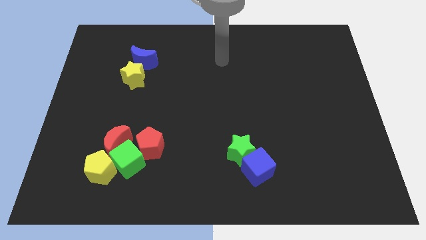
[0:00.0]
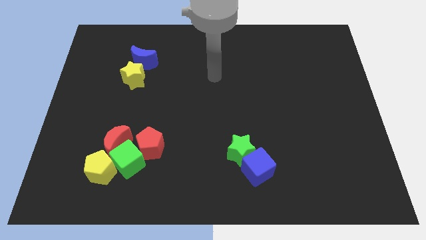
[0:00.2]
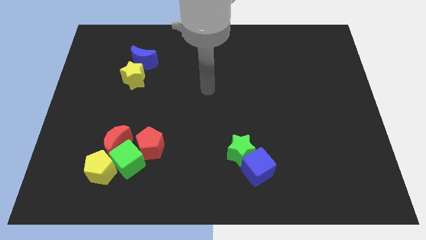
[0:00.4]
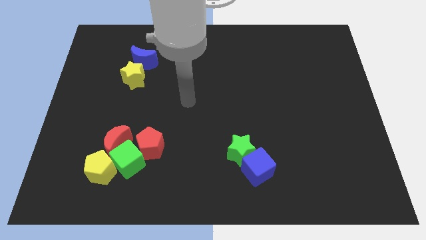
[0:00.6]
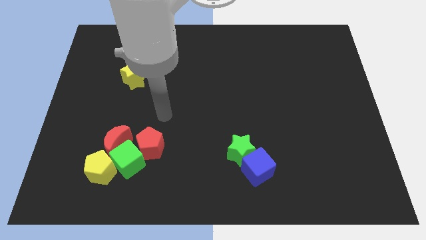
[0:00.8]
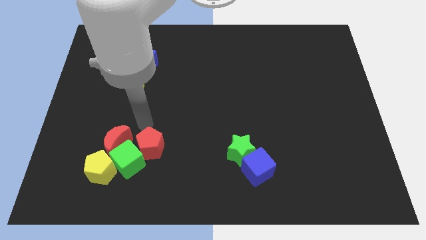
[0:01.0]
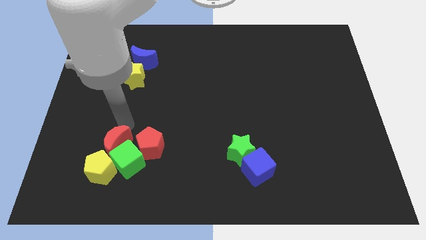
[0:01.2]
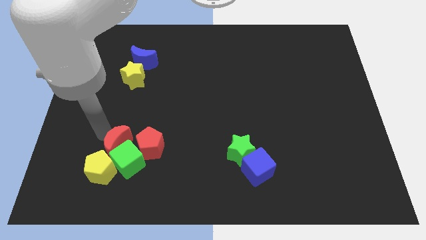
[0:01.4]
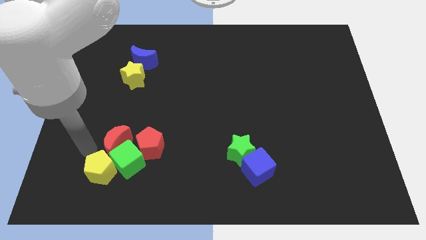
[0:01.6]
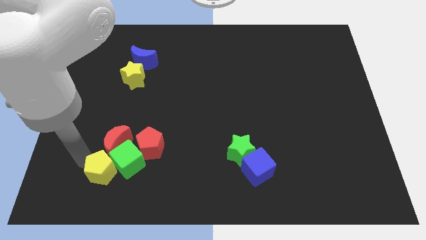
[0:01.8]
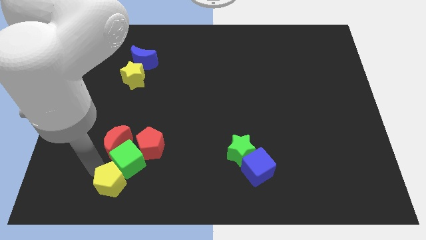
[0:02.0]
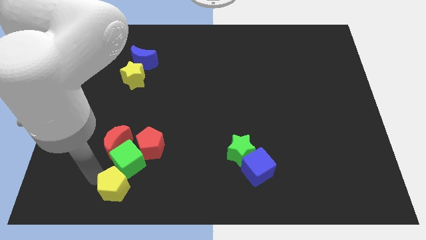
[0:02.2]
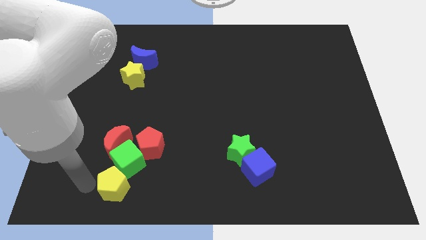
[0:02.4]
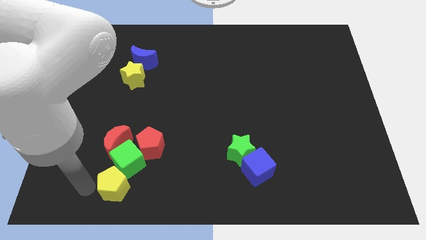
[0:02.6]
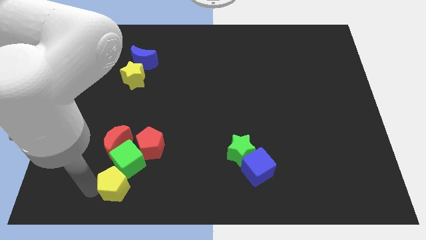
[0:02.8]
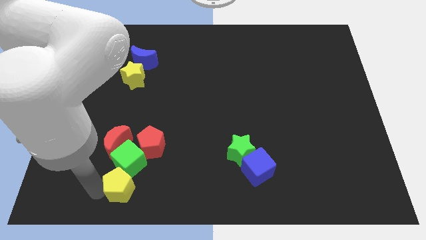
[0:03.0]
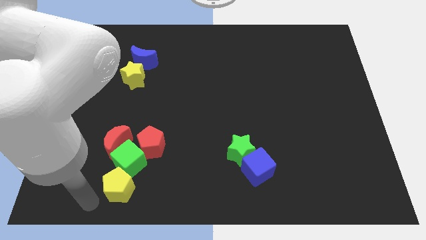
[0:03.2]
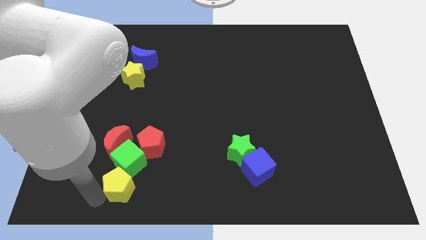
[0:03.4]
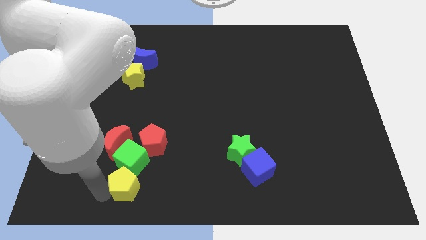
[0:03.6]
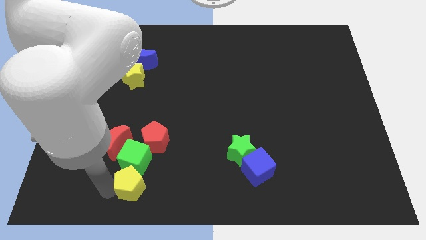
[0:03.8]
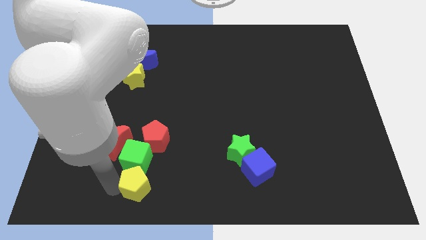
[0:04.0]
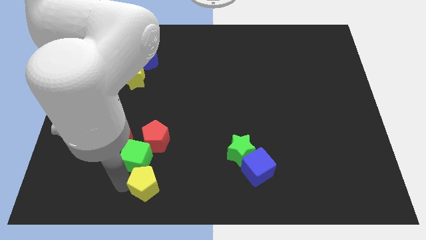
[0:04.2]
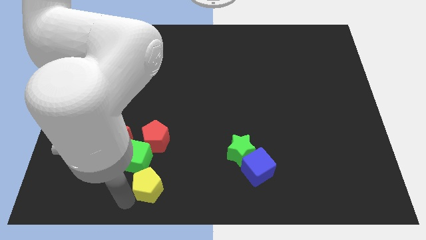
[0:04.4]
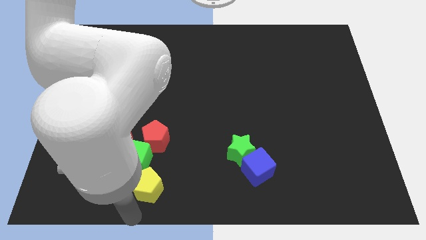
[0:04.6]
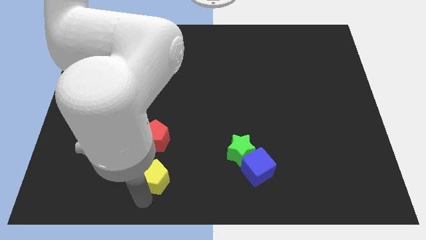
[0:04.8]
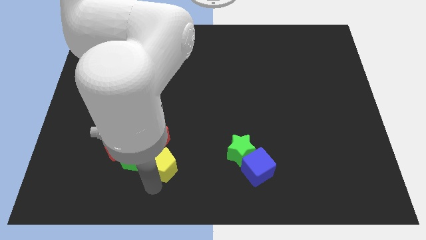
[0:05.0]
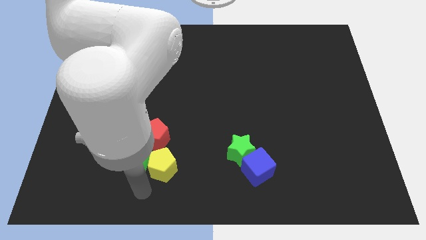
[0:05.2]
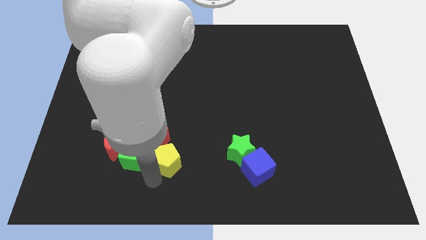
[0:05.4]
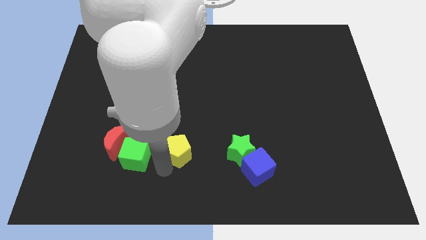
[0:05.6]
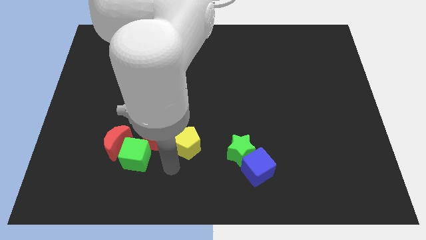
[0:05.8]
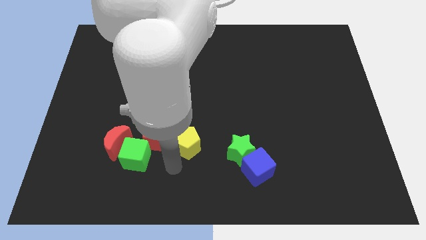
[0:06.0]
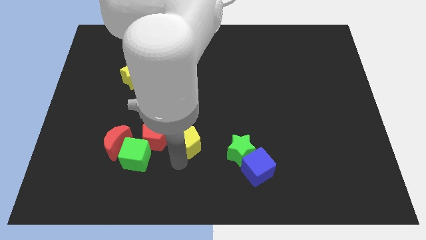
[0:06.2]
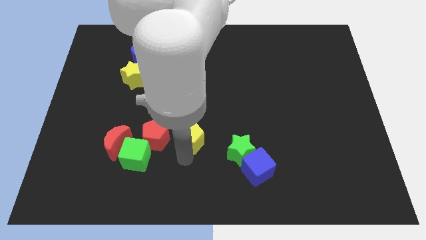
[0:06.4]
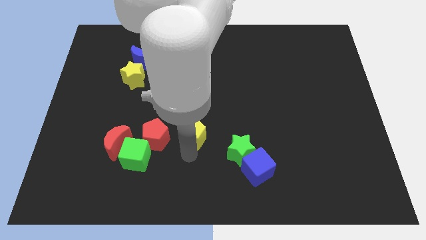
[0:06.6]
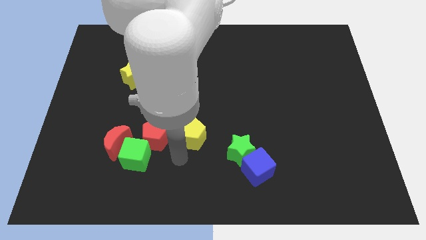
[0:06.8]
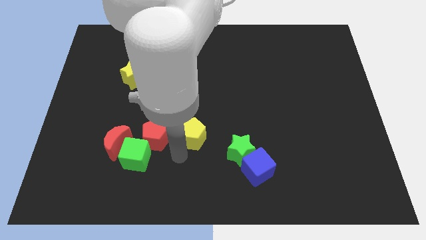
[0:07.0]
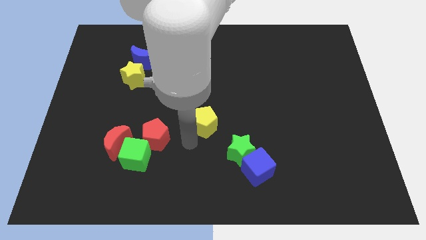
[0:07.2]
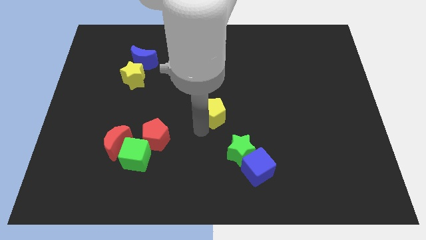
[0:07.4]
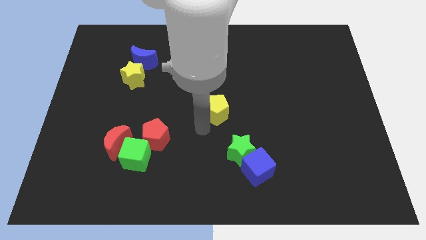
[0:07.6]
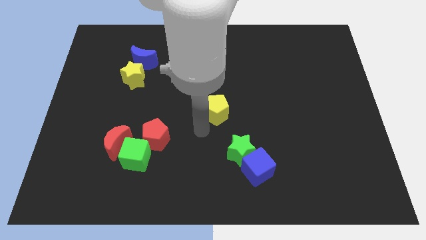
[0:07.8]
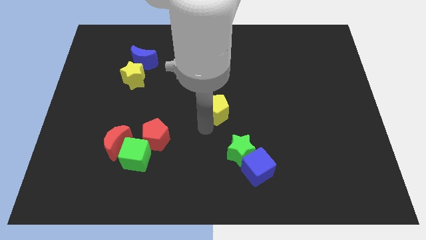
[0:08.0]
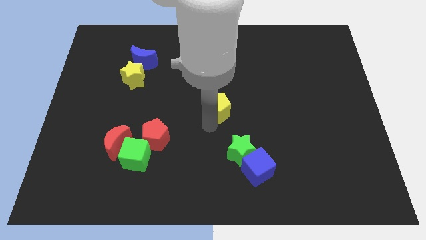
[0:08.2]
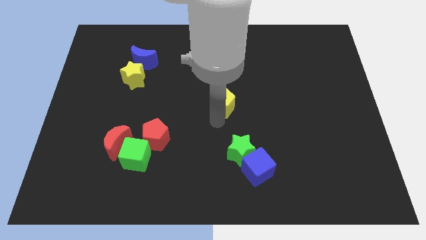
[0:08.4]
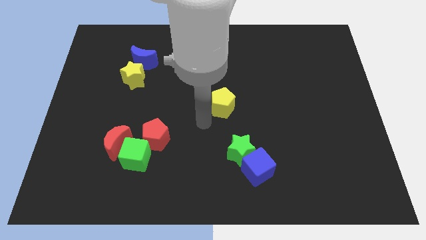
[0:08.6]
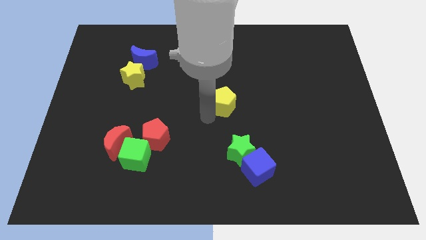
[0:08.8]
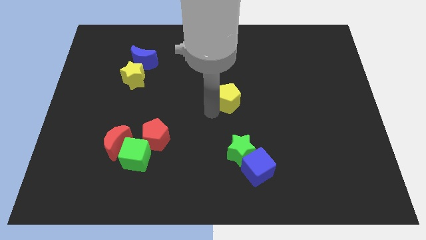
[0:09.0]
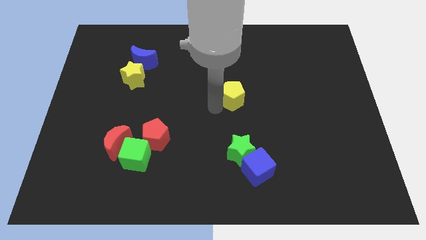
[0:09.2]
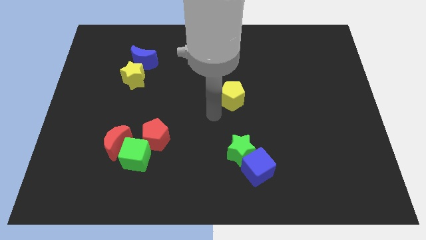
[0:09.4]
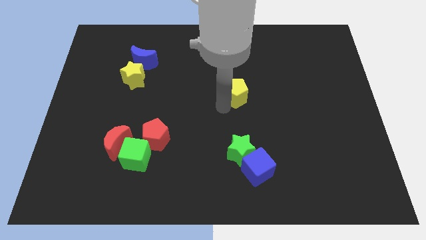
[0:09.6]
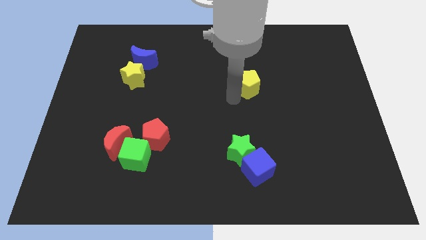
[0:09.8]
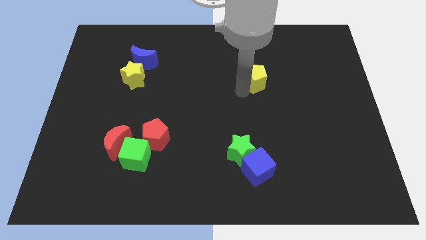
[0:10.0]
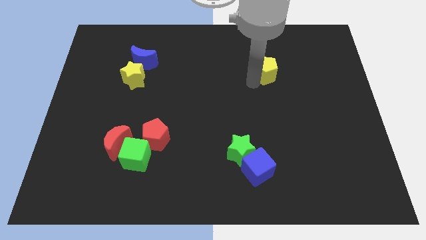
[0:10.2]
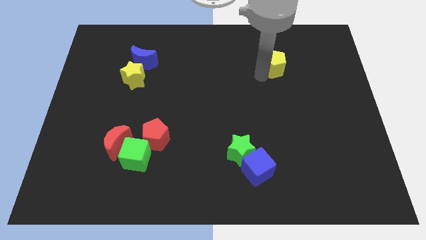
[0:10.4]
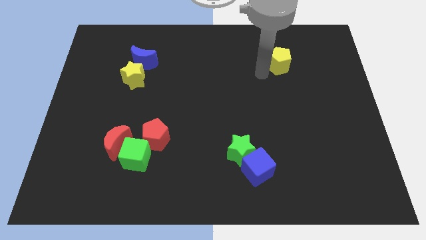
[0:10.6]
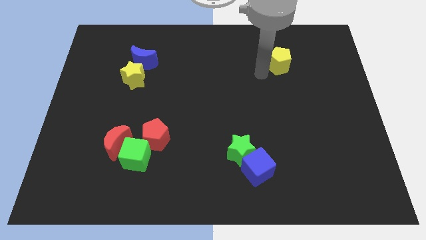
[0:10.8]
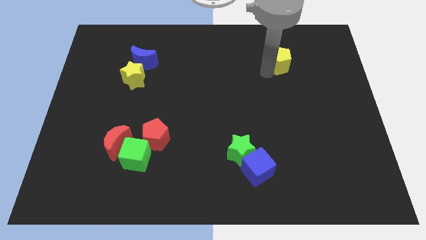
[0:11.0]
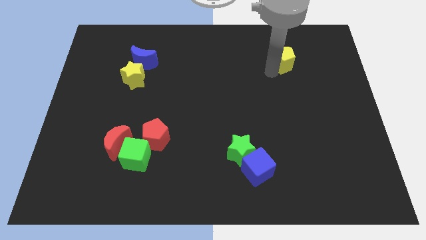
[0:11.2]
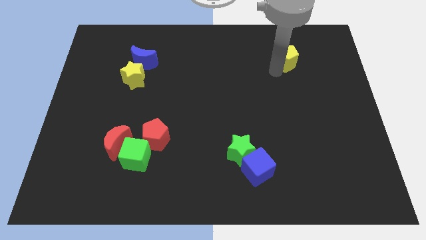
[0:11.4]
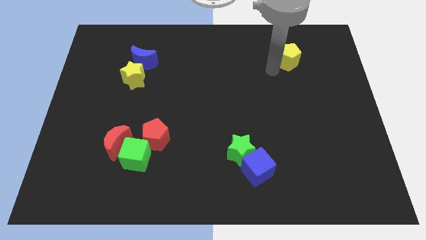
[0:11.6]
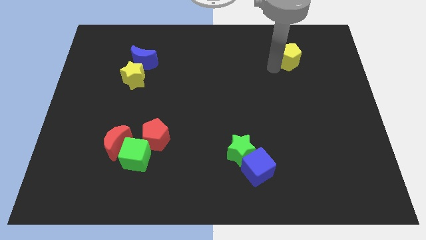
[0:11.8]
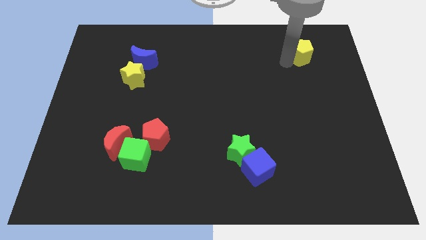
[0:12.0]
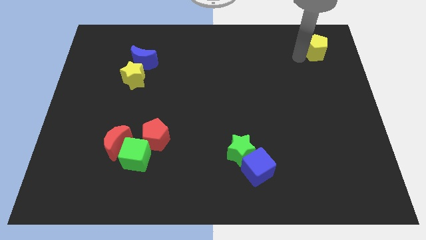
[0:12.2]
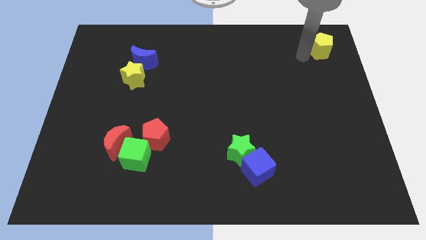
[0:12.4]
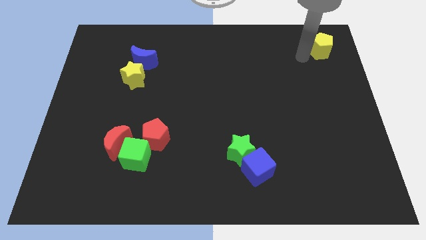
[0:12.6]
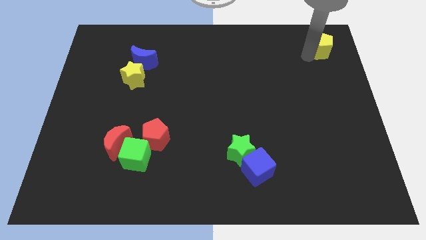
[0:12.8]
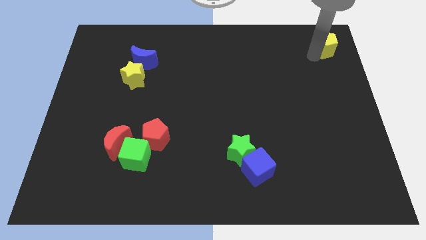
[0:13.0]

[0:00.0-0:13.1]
move the yellow pentagon to the upper right corner
